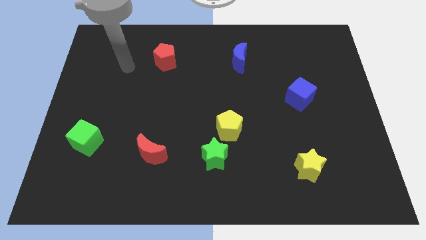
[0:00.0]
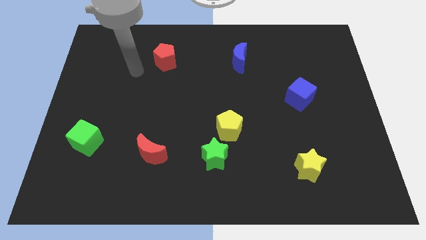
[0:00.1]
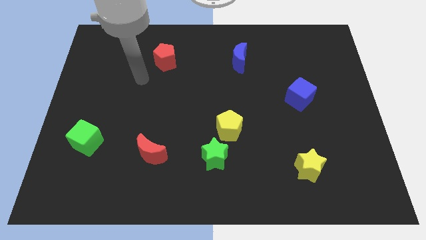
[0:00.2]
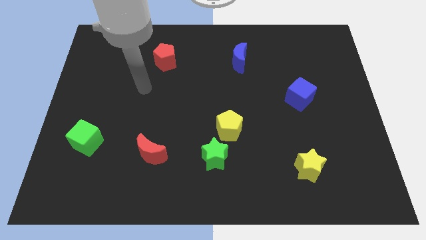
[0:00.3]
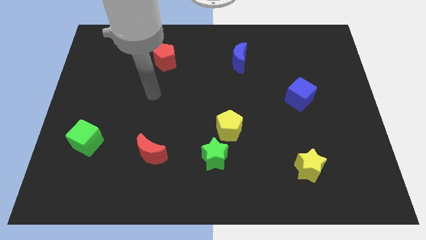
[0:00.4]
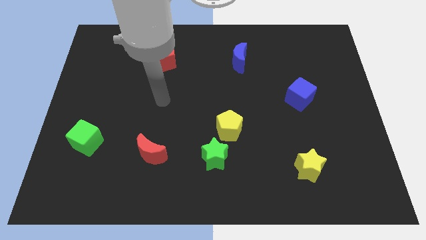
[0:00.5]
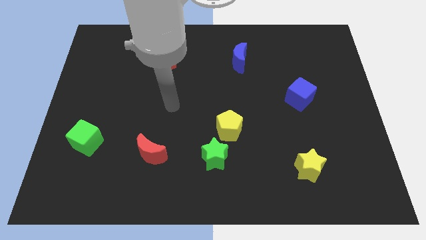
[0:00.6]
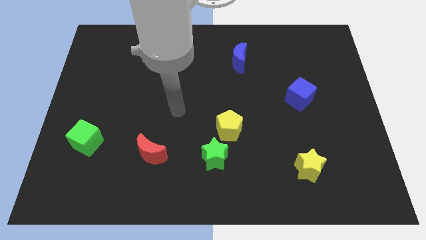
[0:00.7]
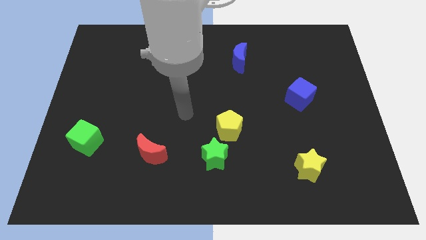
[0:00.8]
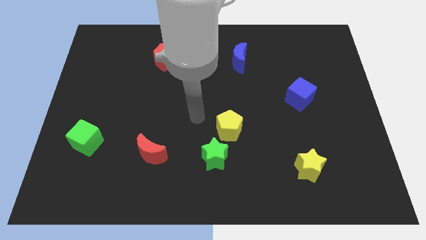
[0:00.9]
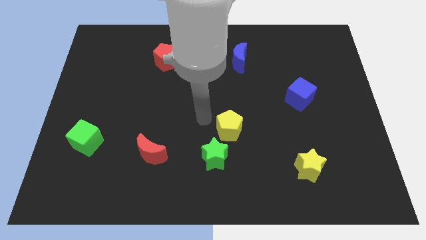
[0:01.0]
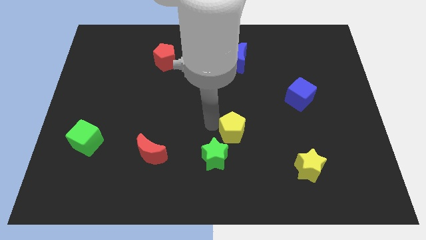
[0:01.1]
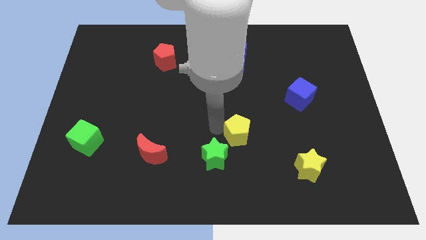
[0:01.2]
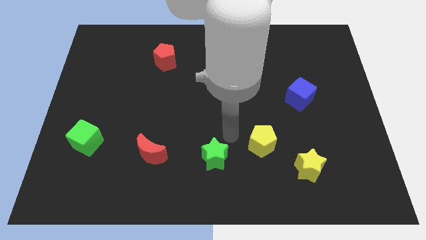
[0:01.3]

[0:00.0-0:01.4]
pull the green star apart from the yellow pentagon

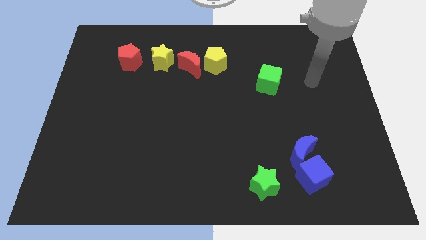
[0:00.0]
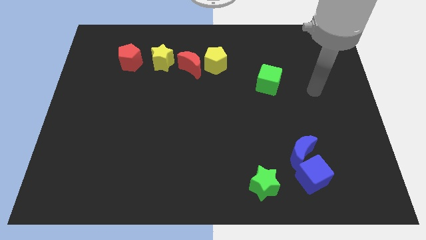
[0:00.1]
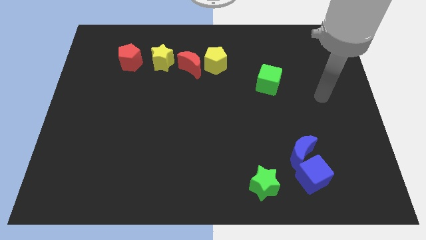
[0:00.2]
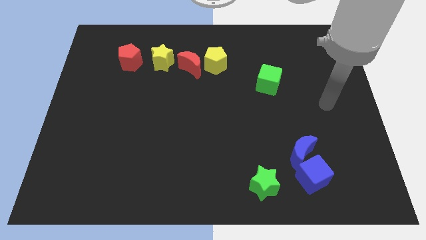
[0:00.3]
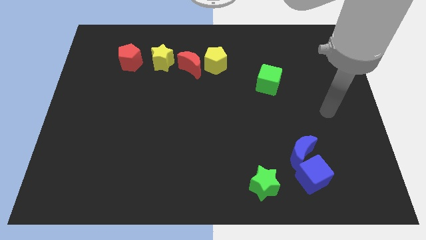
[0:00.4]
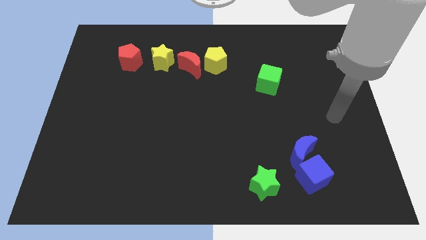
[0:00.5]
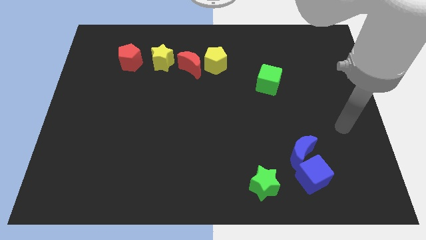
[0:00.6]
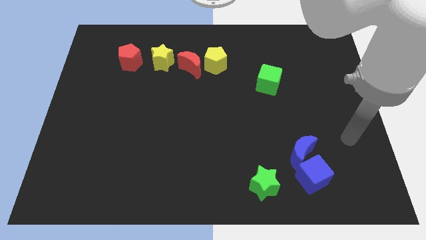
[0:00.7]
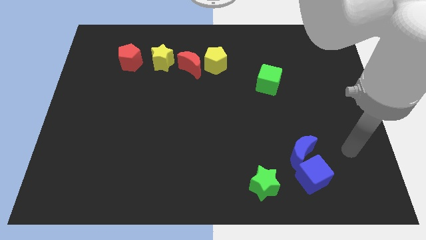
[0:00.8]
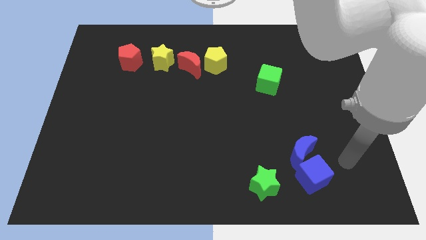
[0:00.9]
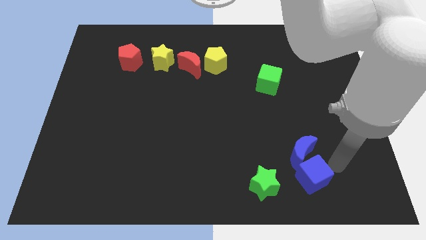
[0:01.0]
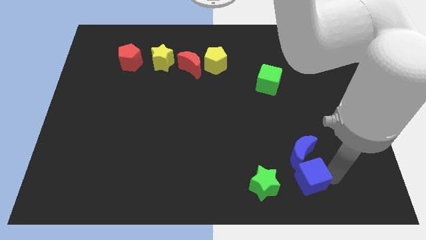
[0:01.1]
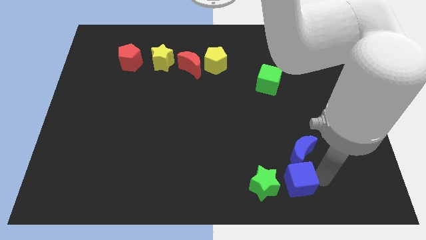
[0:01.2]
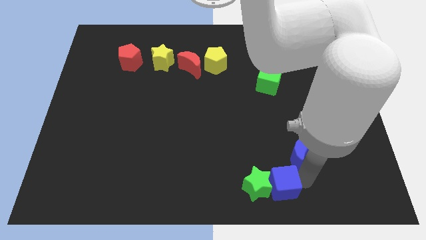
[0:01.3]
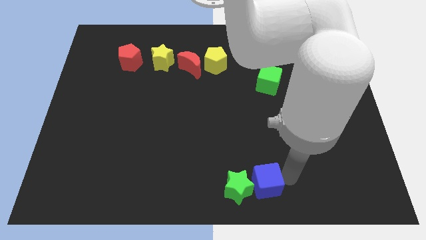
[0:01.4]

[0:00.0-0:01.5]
pull the blue moon apart from the blue cube

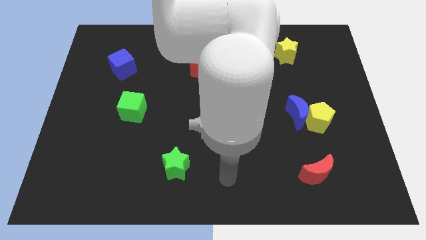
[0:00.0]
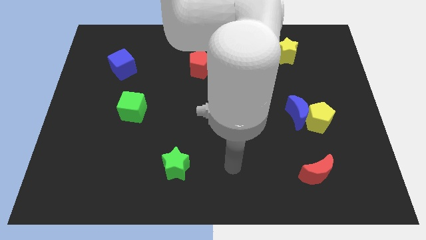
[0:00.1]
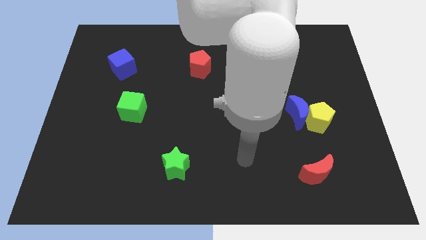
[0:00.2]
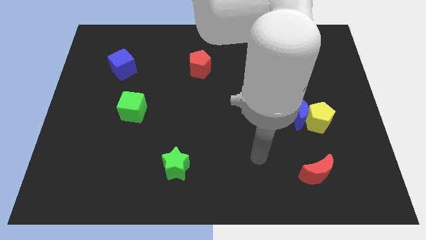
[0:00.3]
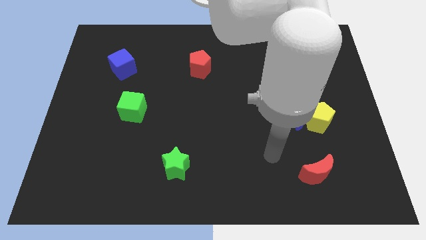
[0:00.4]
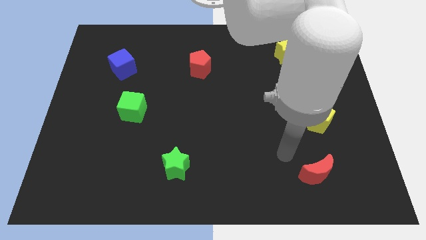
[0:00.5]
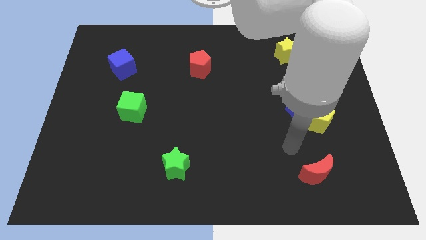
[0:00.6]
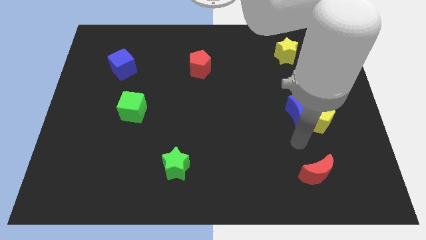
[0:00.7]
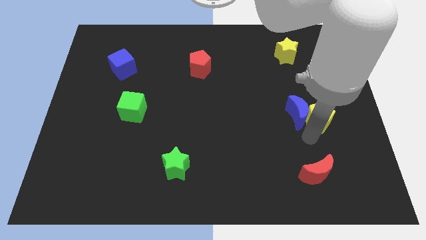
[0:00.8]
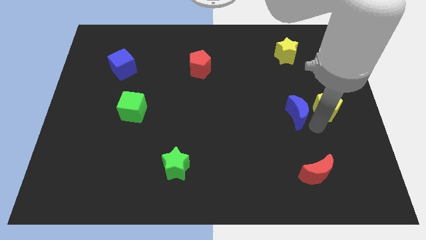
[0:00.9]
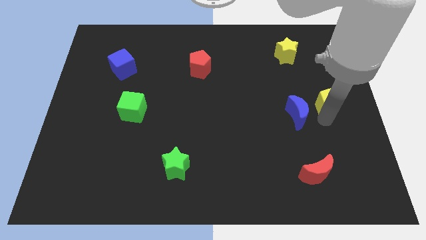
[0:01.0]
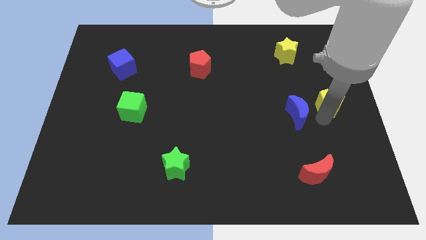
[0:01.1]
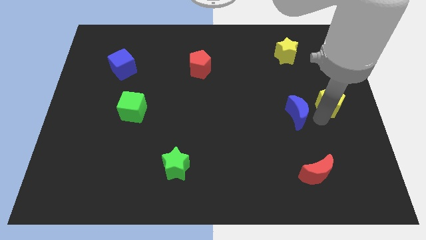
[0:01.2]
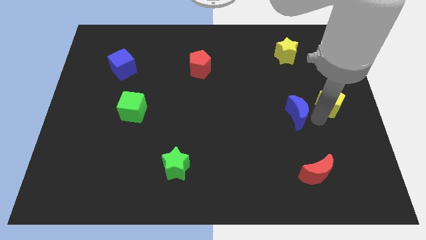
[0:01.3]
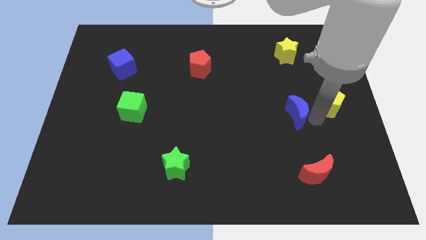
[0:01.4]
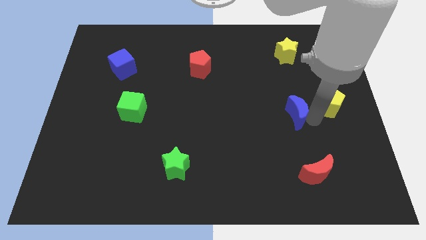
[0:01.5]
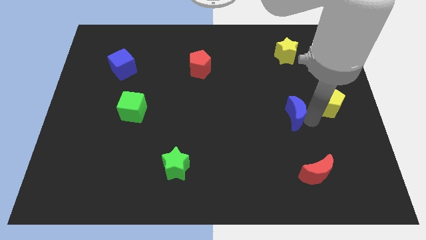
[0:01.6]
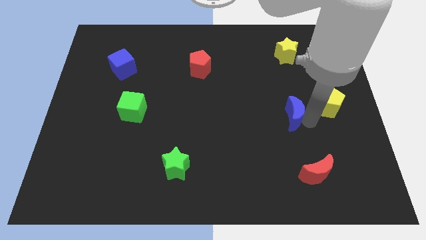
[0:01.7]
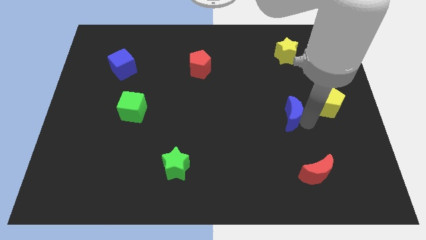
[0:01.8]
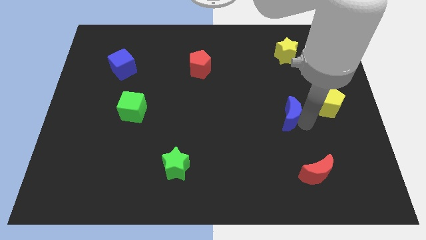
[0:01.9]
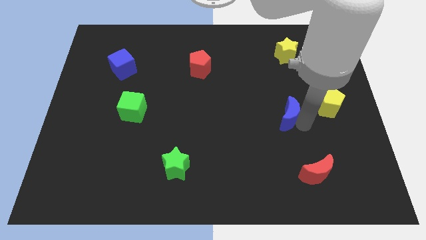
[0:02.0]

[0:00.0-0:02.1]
move the blue moon away from the yellow pentagon

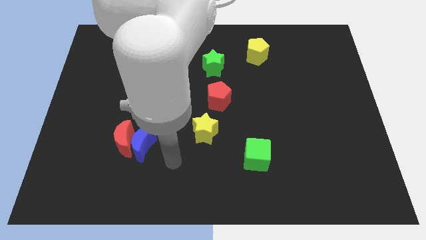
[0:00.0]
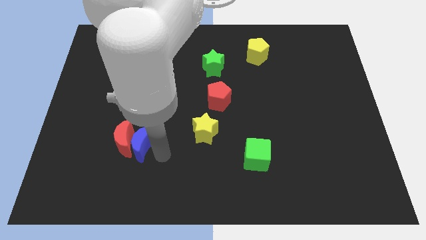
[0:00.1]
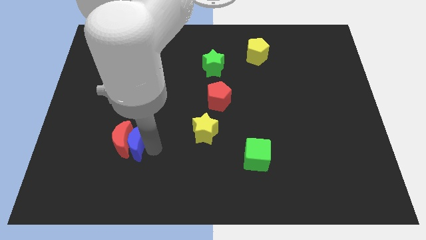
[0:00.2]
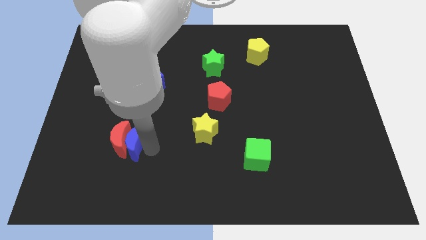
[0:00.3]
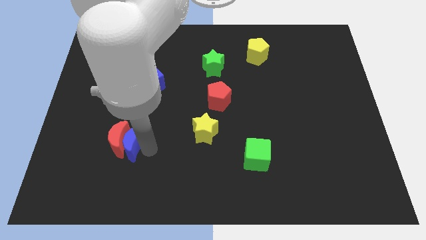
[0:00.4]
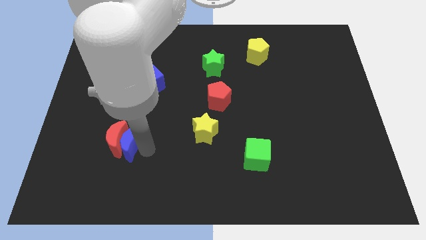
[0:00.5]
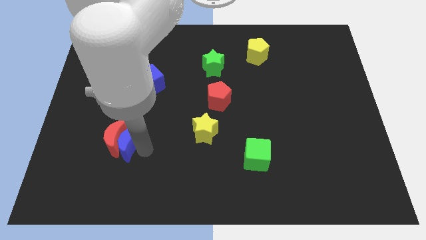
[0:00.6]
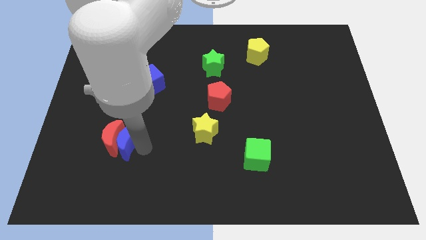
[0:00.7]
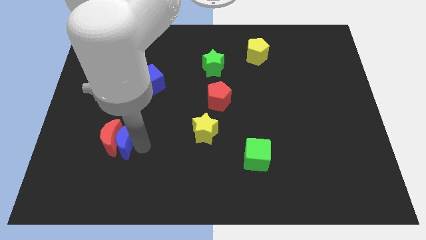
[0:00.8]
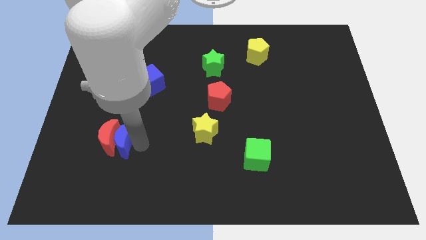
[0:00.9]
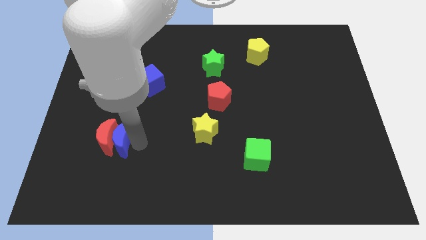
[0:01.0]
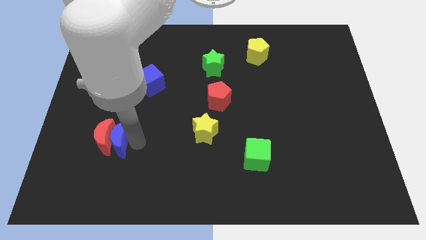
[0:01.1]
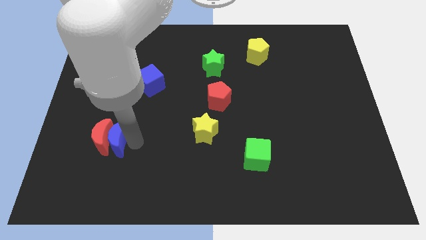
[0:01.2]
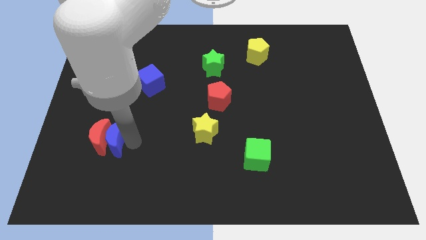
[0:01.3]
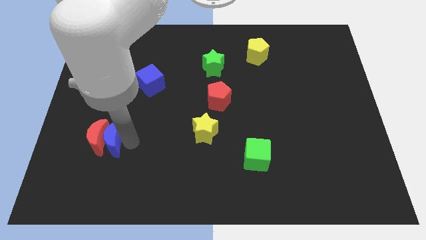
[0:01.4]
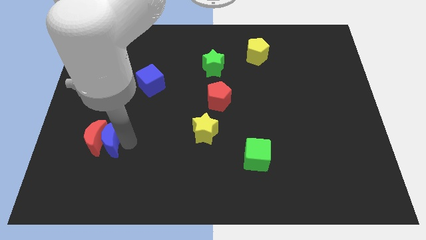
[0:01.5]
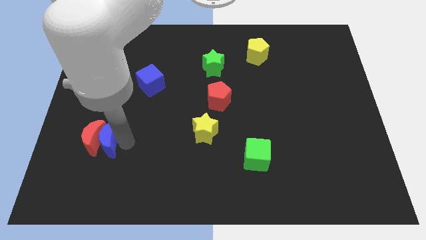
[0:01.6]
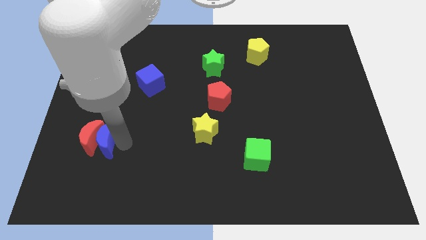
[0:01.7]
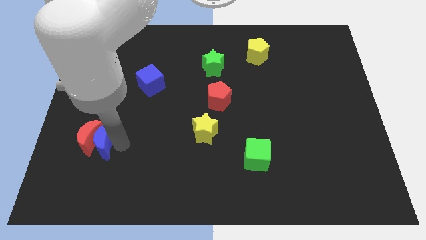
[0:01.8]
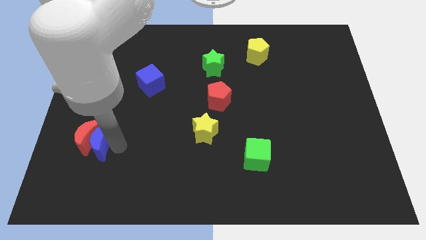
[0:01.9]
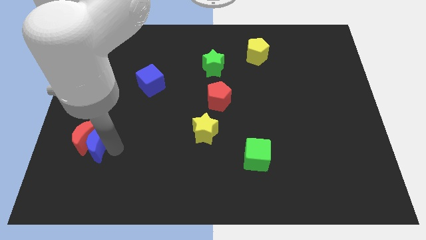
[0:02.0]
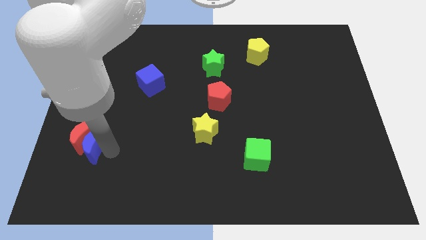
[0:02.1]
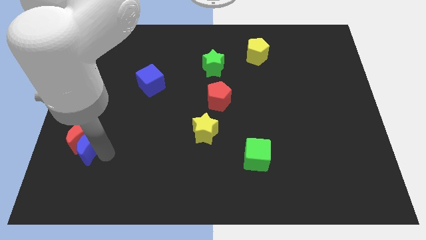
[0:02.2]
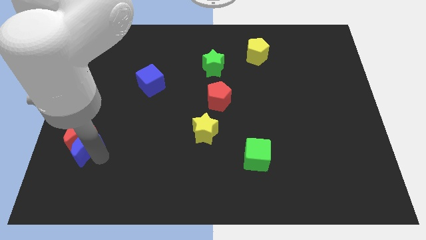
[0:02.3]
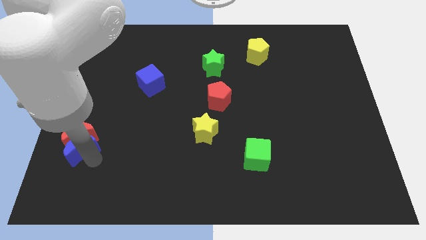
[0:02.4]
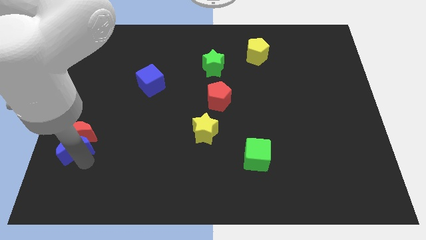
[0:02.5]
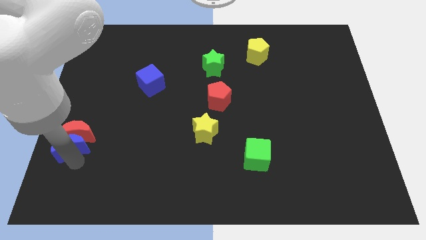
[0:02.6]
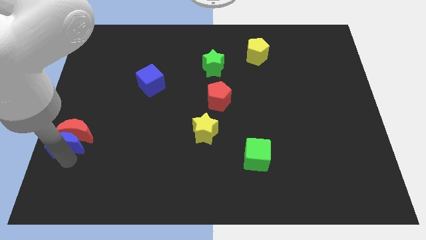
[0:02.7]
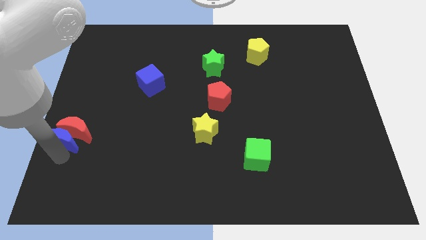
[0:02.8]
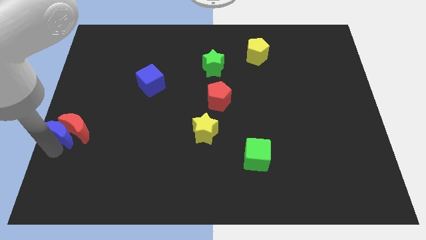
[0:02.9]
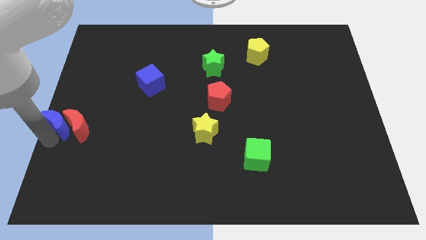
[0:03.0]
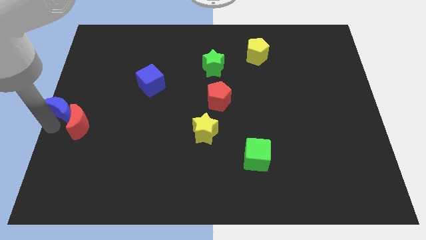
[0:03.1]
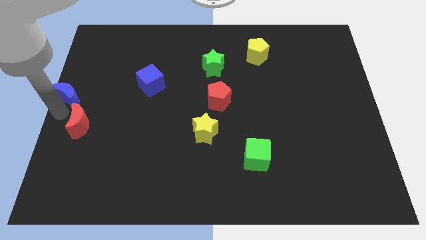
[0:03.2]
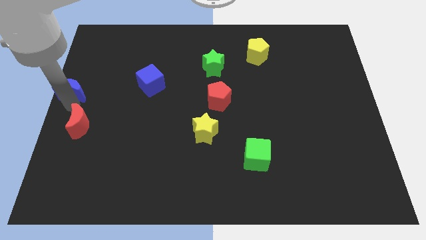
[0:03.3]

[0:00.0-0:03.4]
move the red moon away from the blue moon

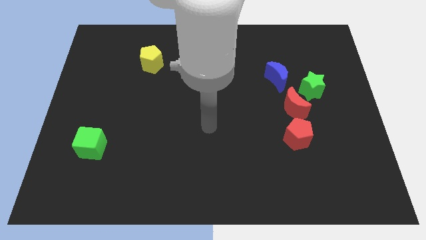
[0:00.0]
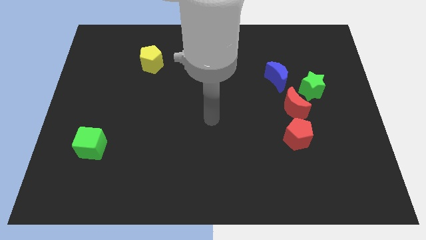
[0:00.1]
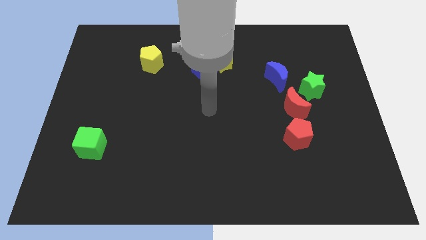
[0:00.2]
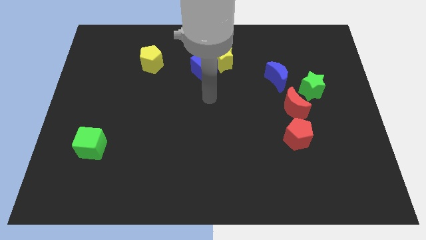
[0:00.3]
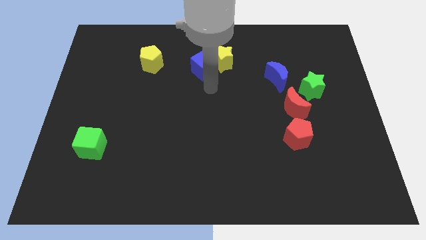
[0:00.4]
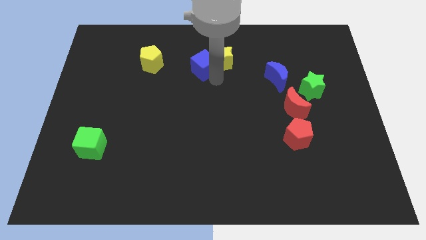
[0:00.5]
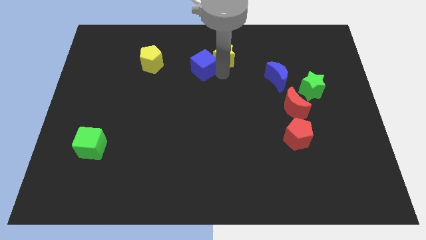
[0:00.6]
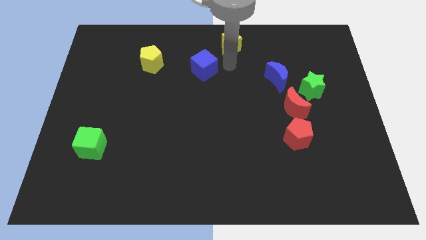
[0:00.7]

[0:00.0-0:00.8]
separate the blue cube from the yellow star

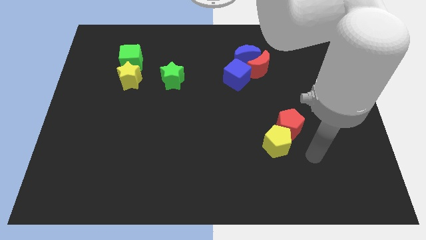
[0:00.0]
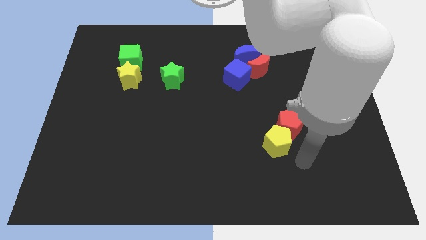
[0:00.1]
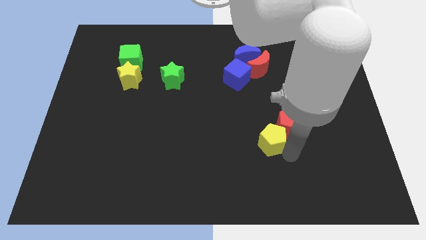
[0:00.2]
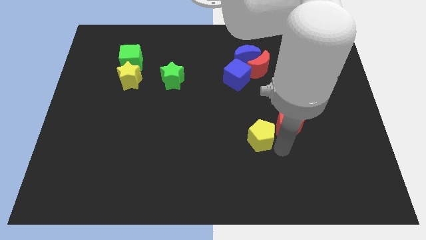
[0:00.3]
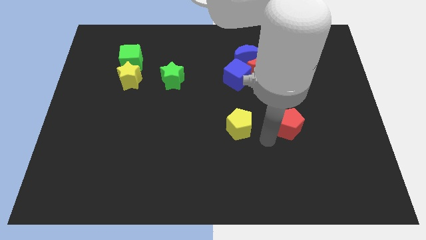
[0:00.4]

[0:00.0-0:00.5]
separate the red pentagon from the yellow pentagon
